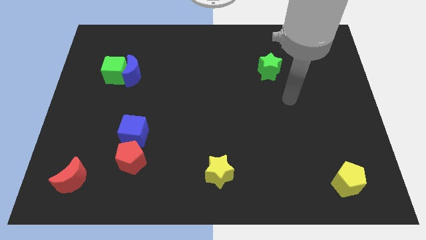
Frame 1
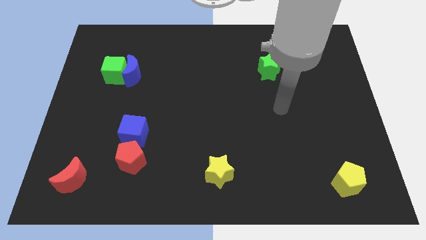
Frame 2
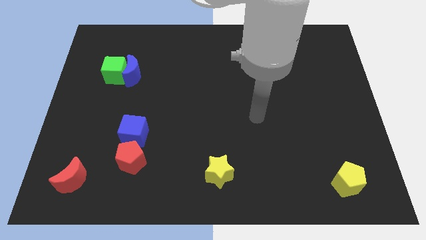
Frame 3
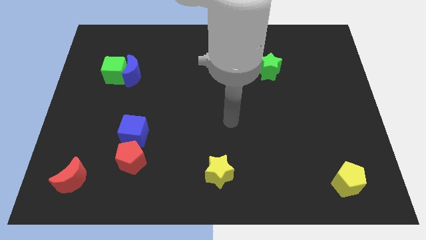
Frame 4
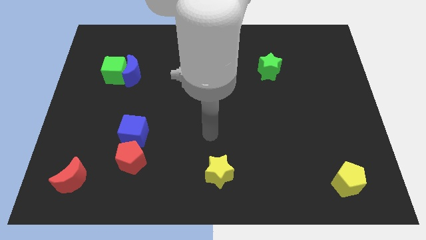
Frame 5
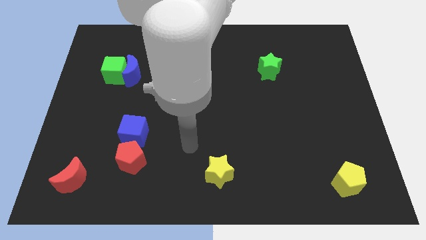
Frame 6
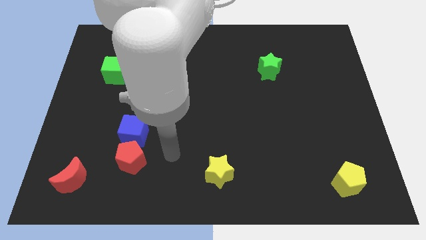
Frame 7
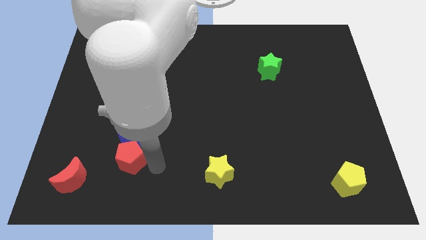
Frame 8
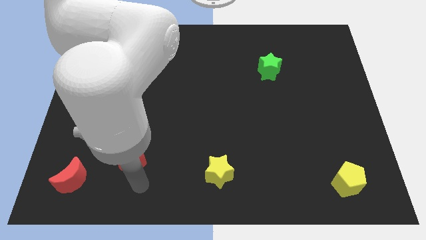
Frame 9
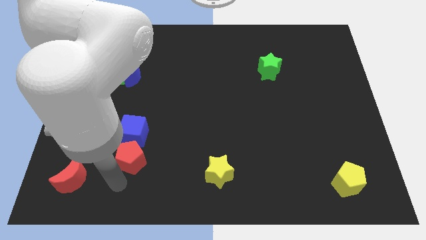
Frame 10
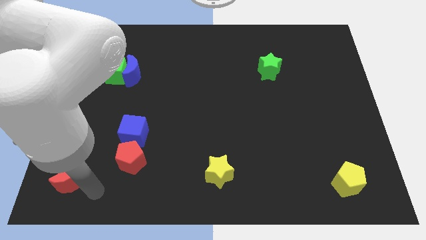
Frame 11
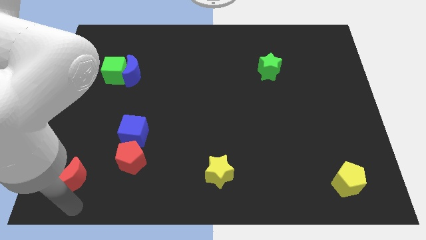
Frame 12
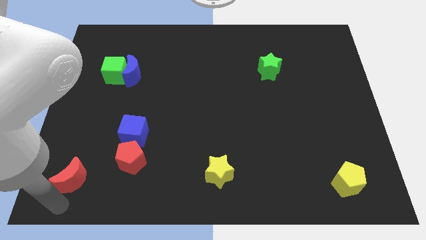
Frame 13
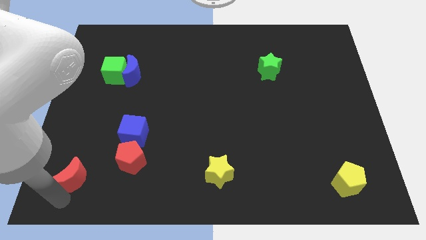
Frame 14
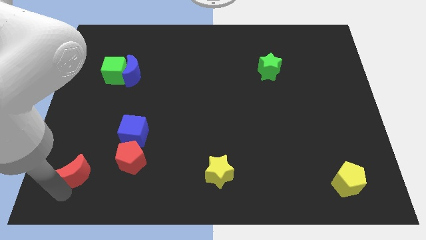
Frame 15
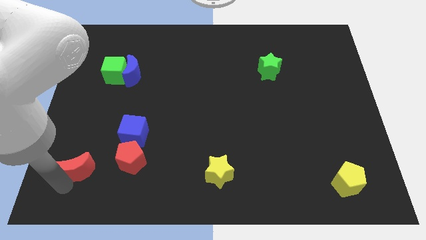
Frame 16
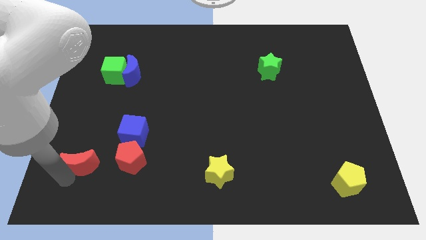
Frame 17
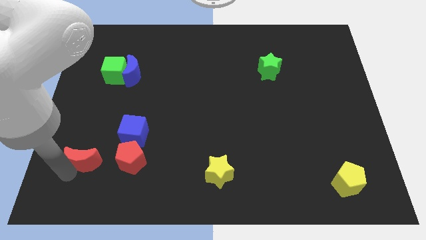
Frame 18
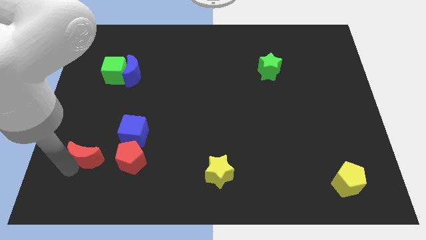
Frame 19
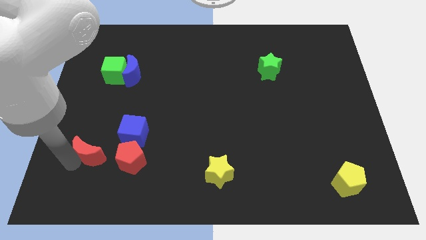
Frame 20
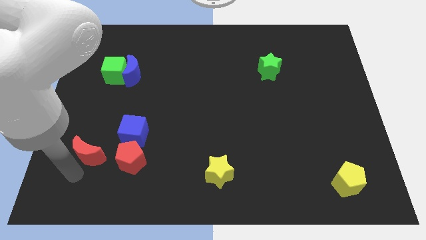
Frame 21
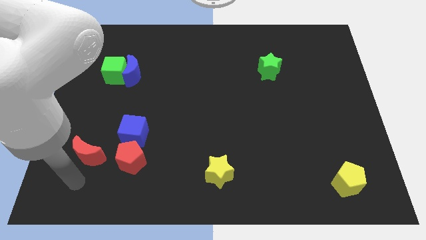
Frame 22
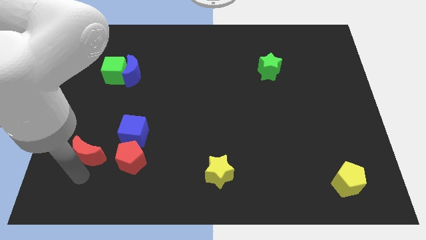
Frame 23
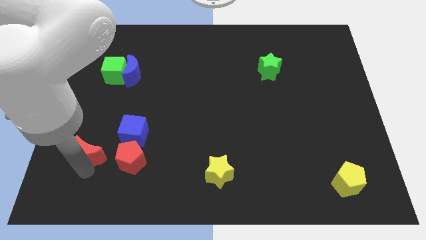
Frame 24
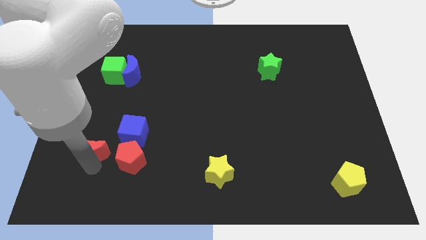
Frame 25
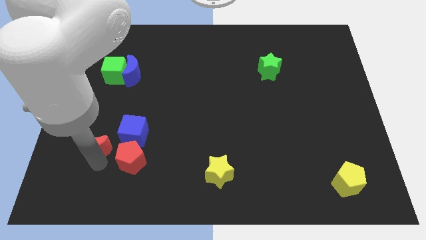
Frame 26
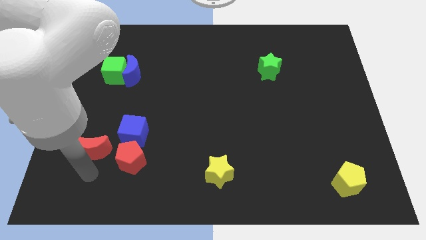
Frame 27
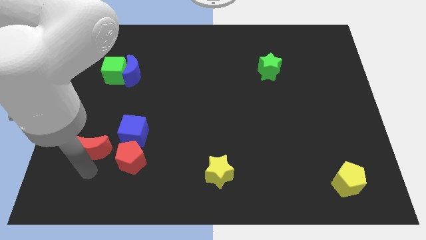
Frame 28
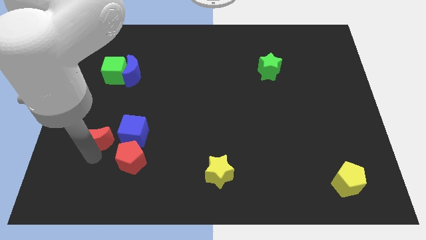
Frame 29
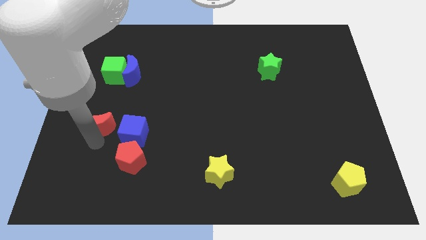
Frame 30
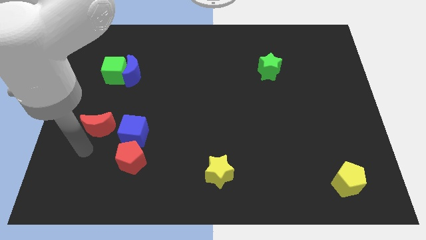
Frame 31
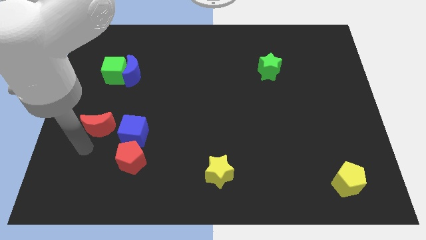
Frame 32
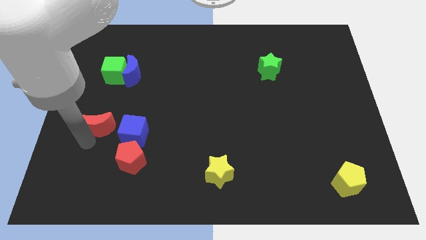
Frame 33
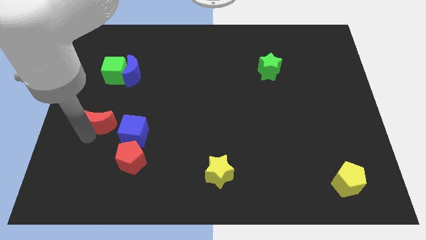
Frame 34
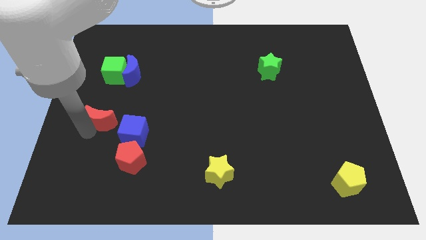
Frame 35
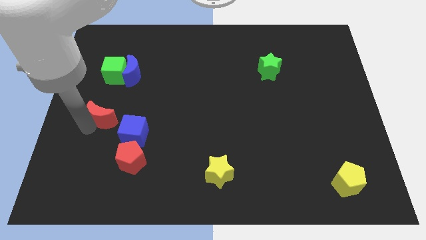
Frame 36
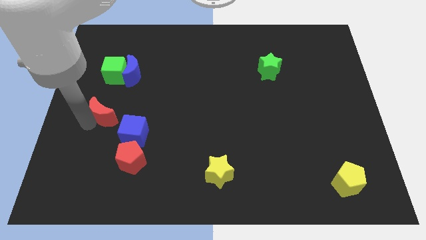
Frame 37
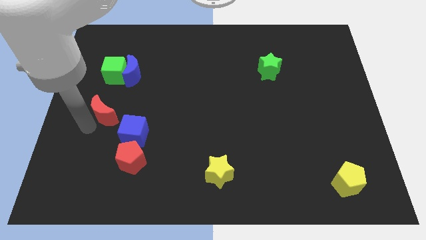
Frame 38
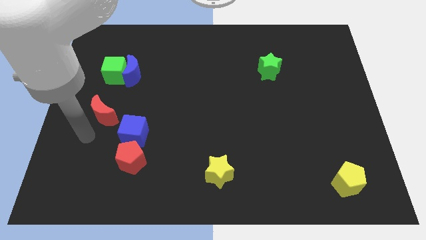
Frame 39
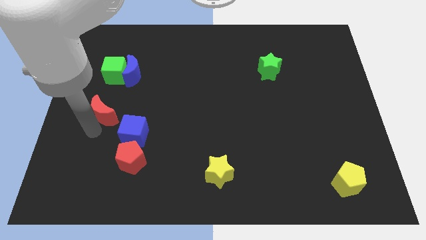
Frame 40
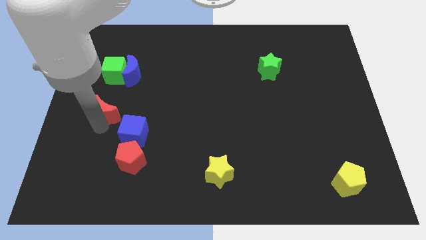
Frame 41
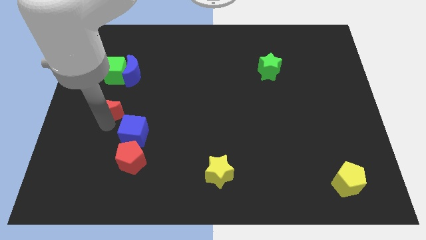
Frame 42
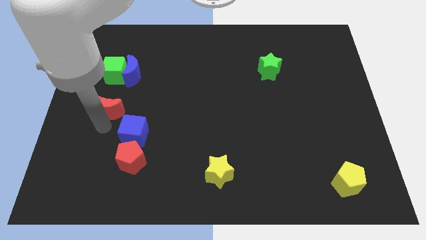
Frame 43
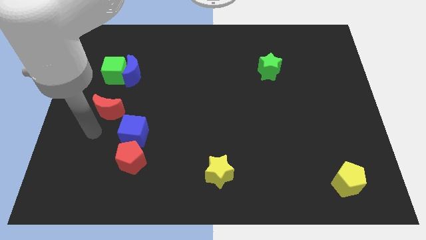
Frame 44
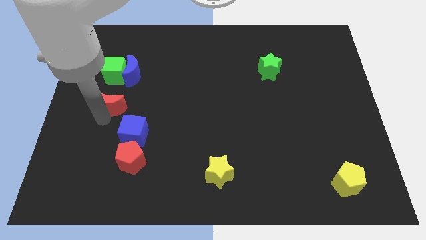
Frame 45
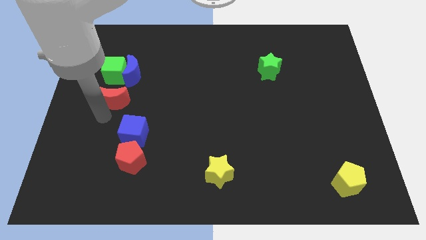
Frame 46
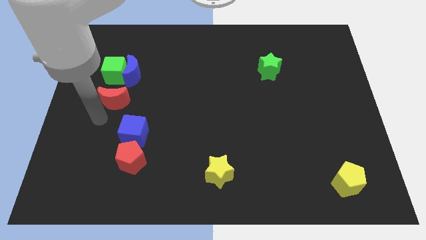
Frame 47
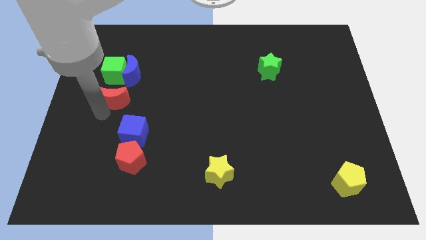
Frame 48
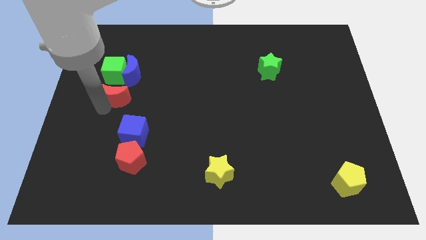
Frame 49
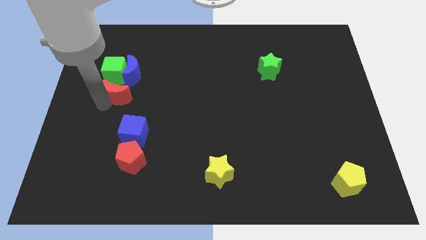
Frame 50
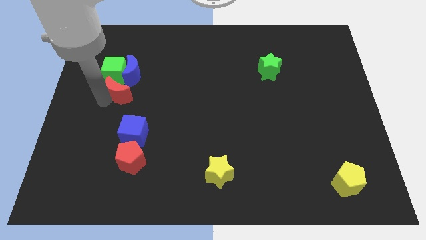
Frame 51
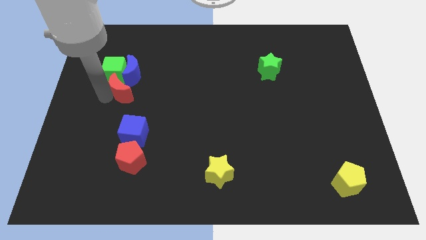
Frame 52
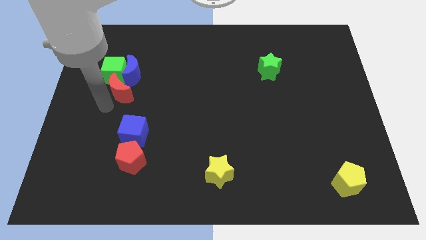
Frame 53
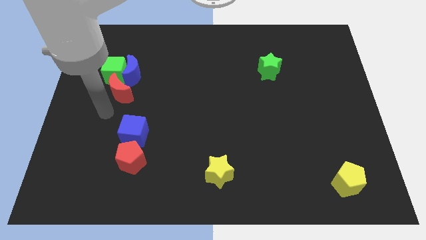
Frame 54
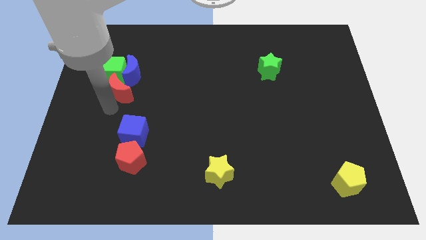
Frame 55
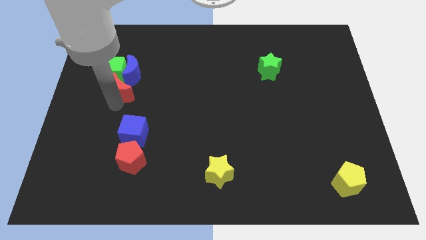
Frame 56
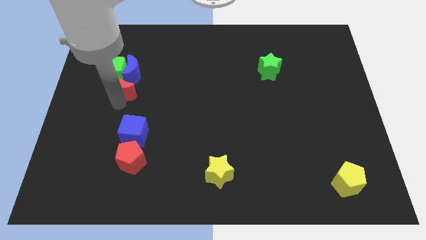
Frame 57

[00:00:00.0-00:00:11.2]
push the red moon next to the blue moon
